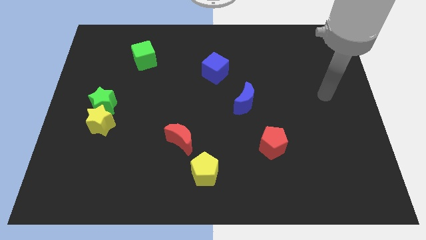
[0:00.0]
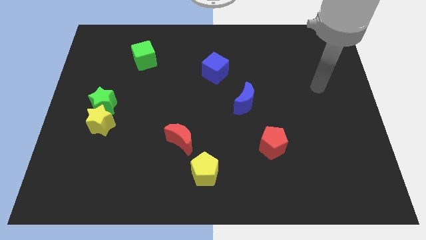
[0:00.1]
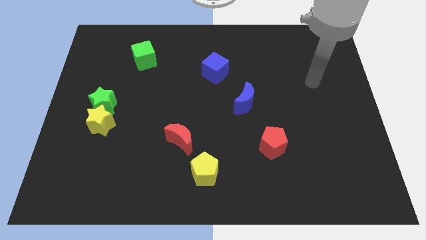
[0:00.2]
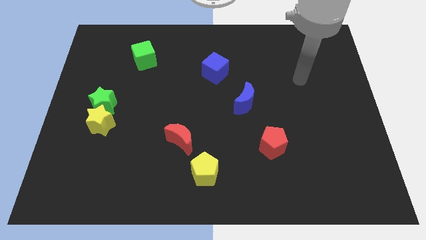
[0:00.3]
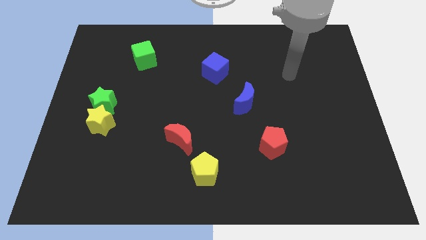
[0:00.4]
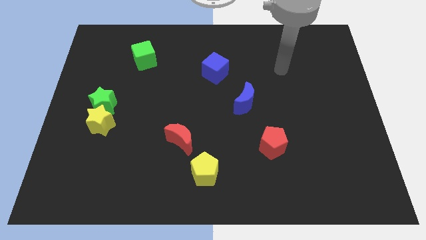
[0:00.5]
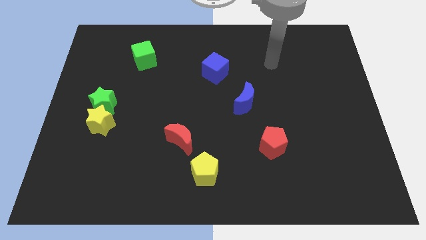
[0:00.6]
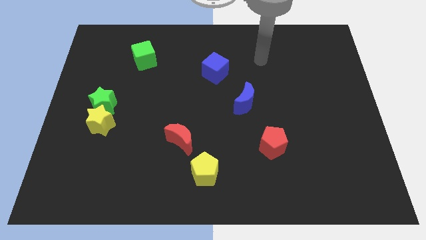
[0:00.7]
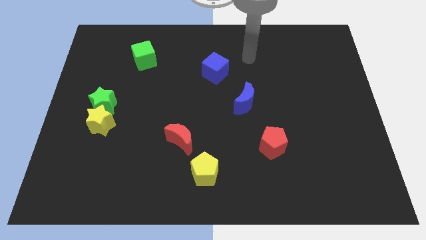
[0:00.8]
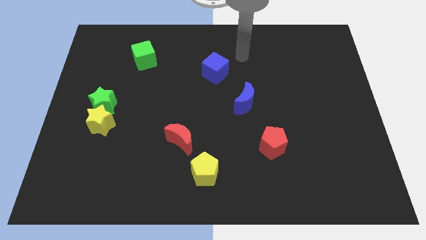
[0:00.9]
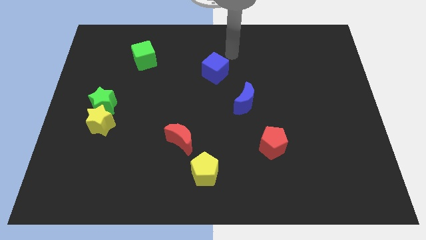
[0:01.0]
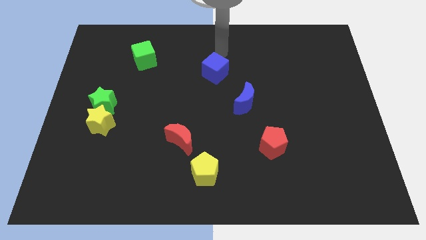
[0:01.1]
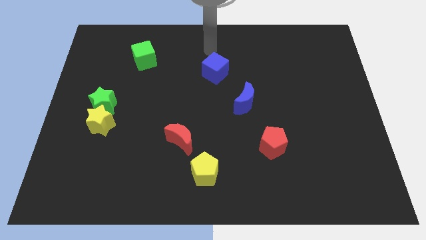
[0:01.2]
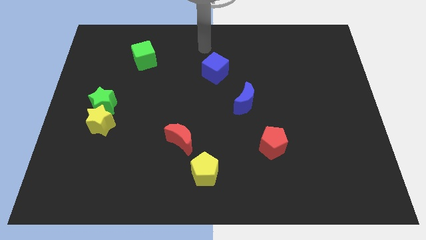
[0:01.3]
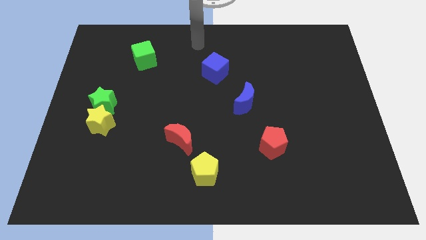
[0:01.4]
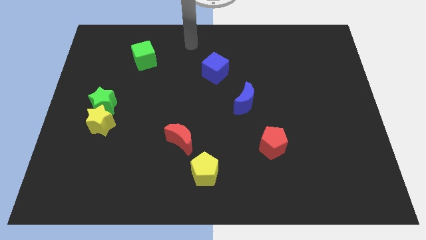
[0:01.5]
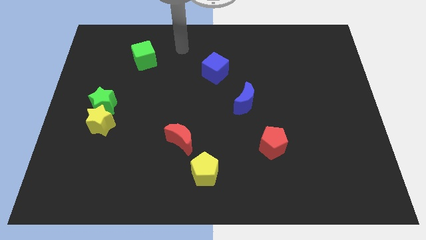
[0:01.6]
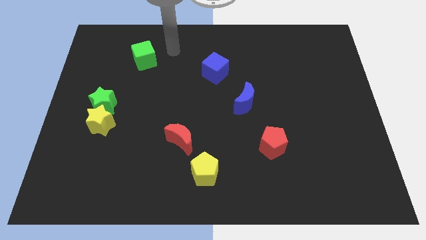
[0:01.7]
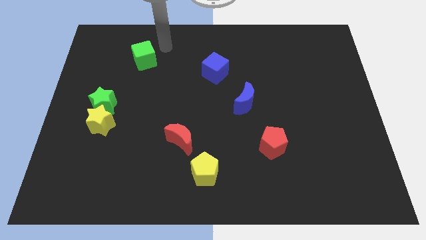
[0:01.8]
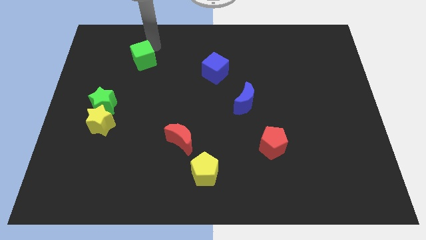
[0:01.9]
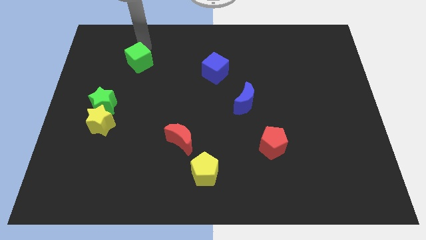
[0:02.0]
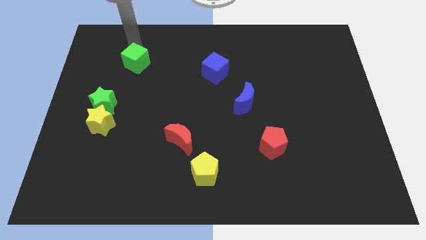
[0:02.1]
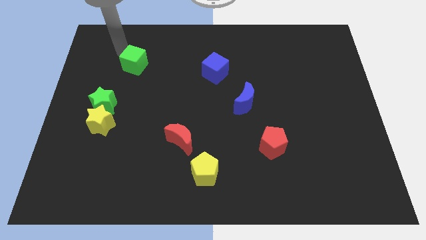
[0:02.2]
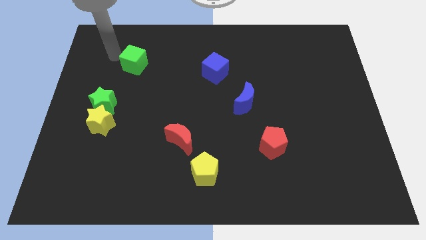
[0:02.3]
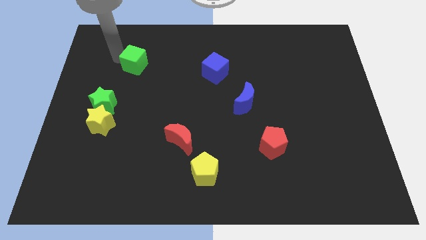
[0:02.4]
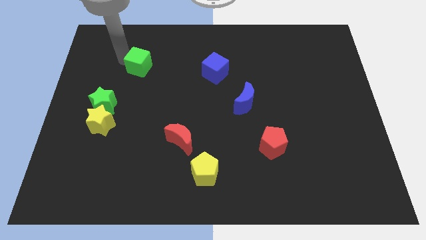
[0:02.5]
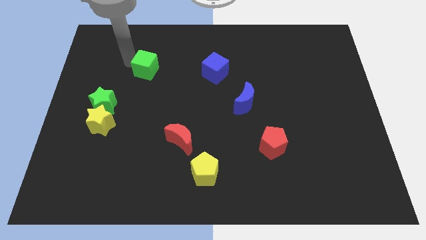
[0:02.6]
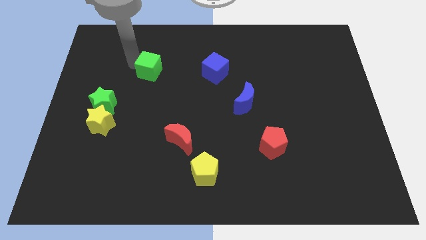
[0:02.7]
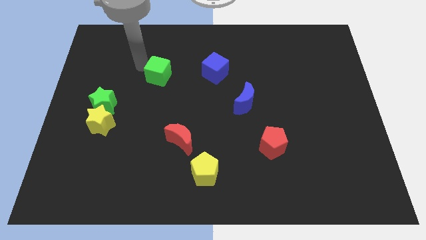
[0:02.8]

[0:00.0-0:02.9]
move the green cube slightly down and to the right diagonally

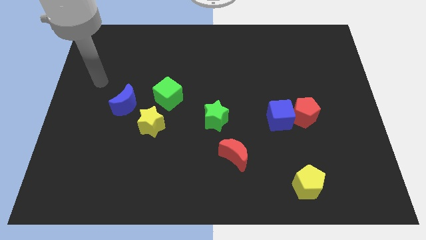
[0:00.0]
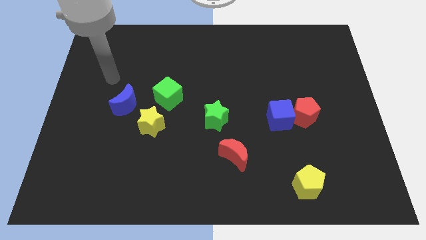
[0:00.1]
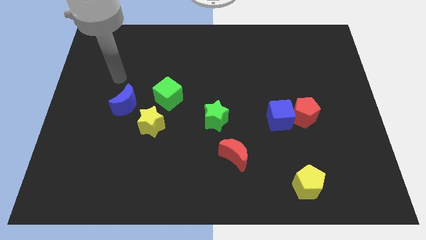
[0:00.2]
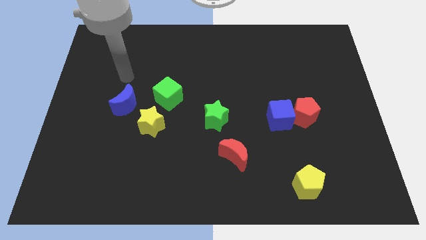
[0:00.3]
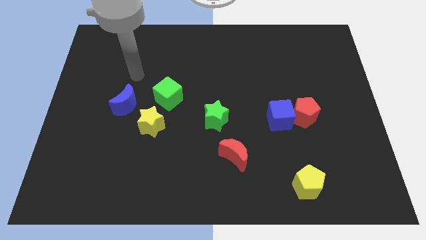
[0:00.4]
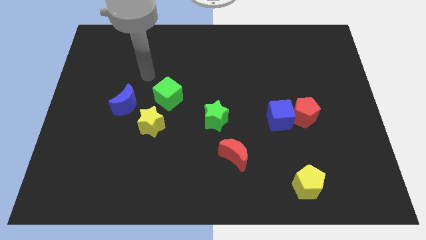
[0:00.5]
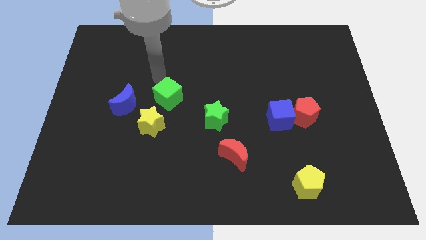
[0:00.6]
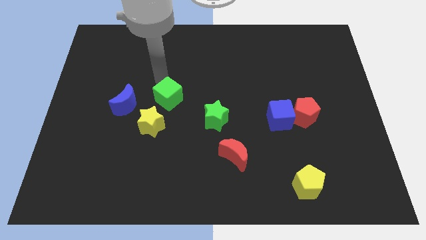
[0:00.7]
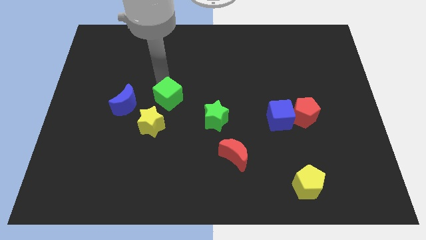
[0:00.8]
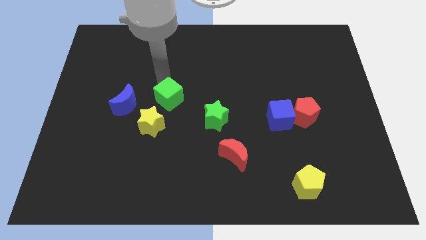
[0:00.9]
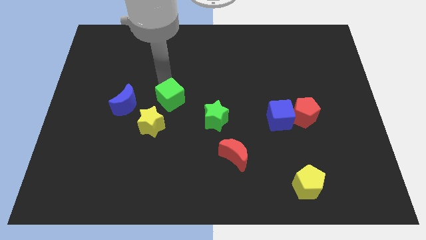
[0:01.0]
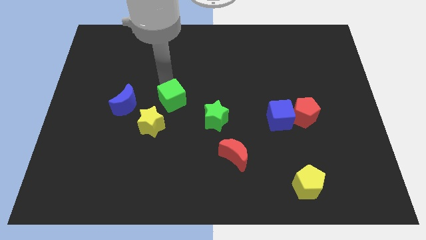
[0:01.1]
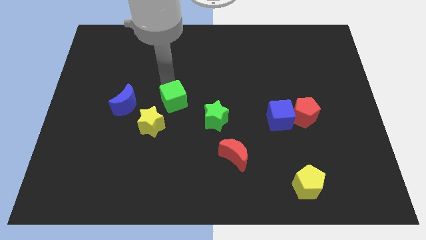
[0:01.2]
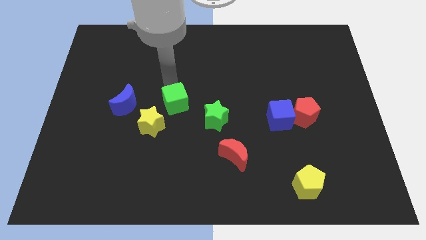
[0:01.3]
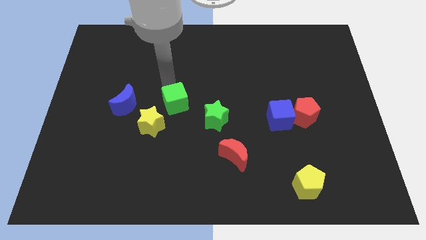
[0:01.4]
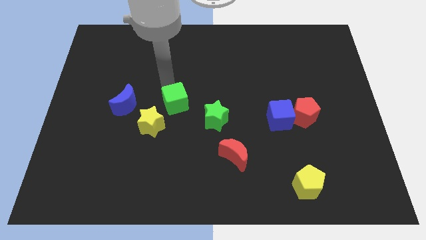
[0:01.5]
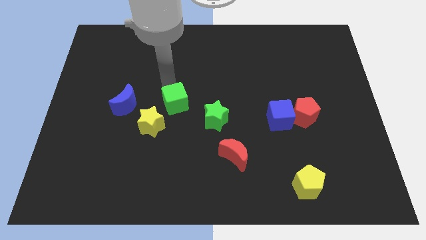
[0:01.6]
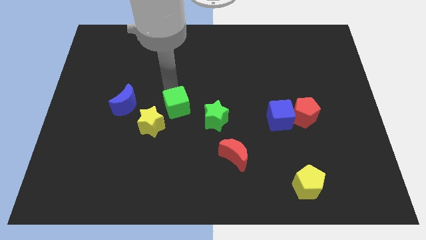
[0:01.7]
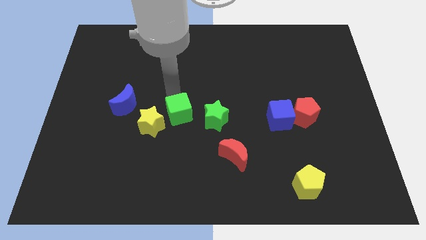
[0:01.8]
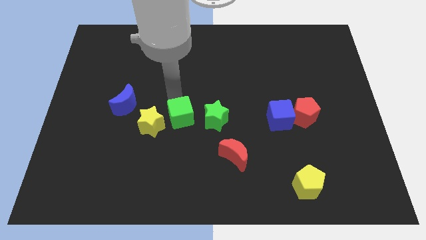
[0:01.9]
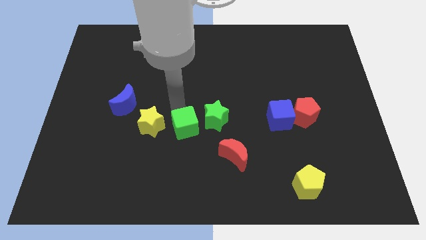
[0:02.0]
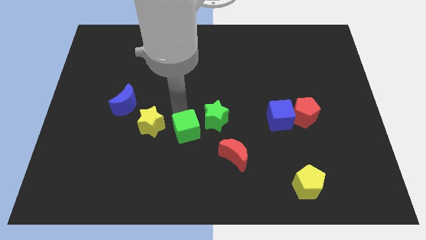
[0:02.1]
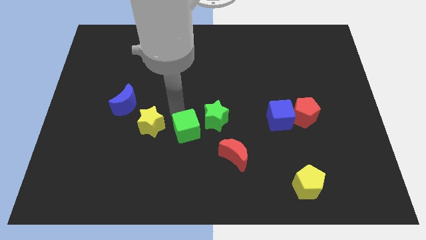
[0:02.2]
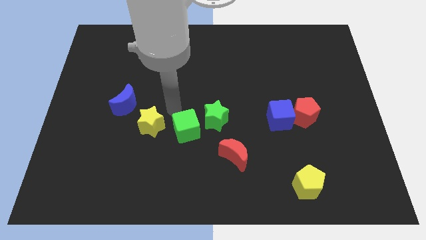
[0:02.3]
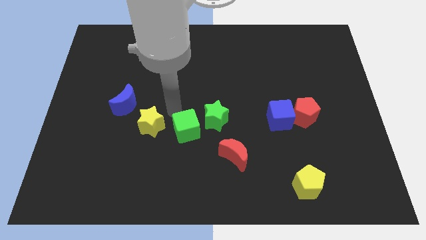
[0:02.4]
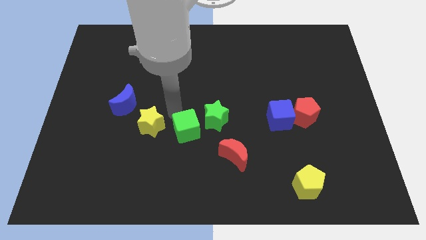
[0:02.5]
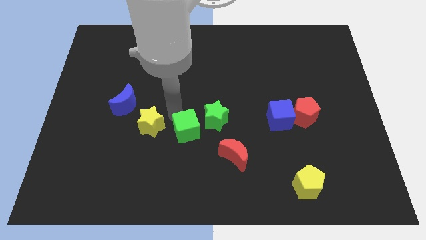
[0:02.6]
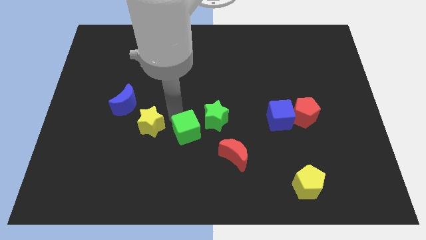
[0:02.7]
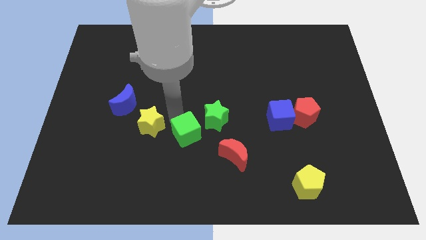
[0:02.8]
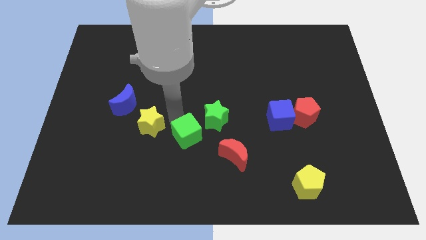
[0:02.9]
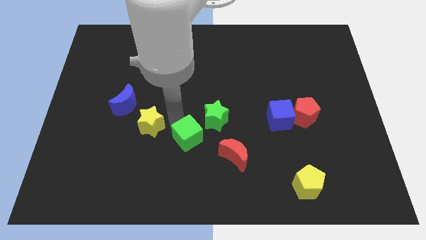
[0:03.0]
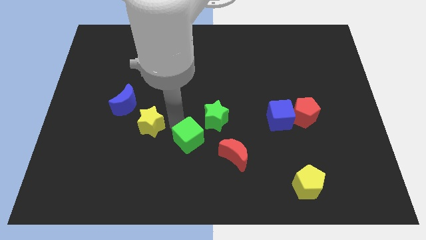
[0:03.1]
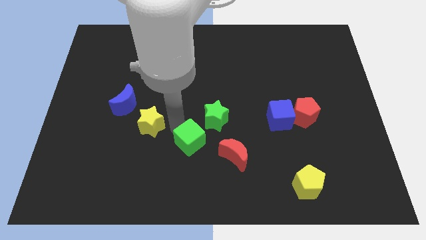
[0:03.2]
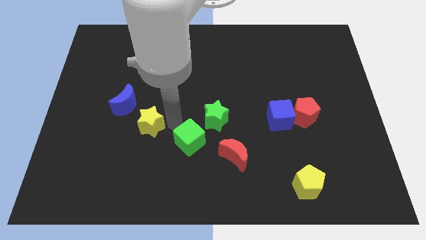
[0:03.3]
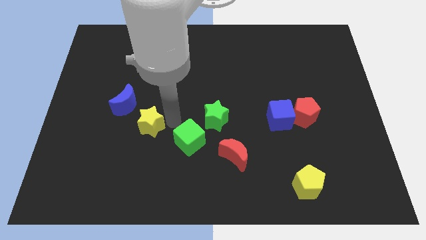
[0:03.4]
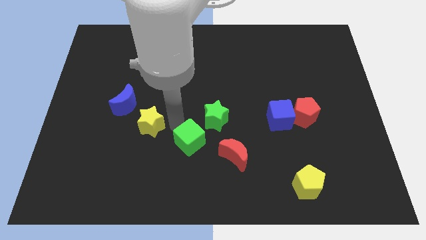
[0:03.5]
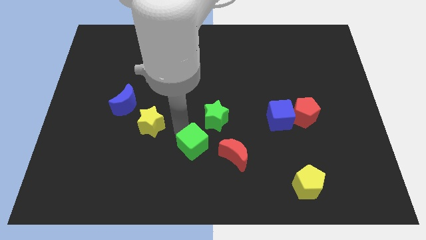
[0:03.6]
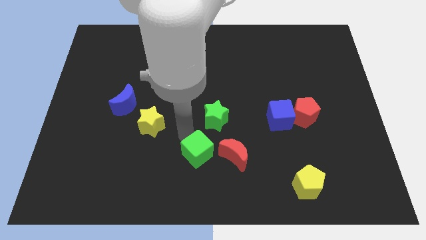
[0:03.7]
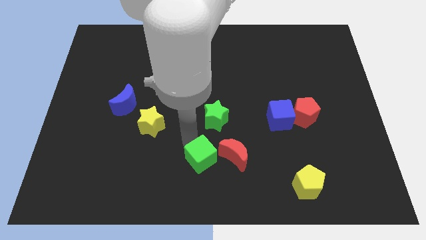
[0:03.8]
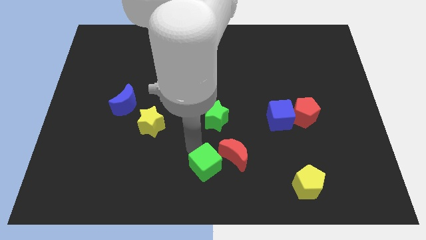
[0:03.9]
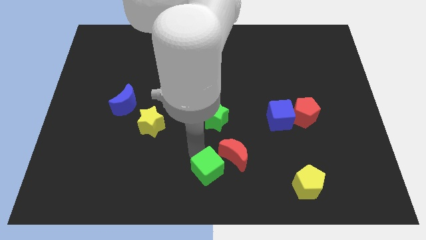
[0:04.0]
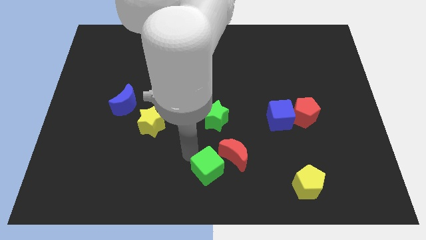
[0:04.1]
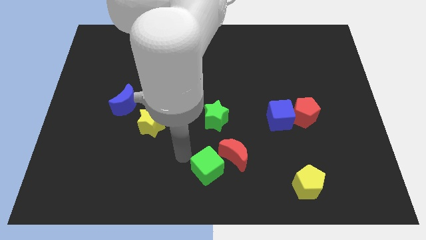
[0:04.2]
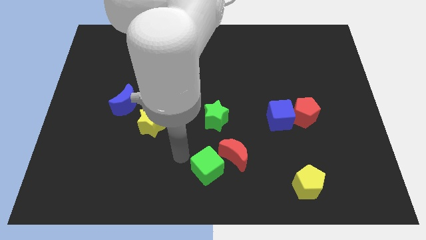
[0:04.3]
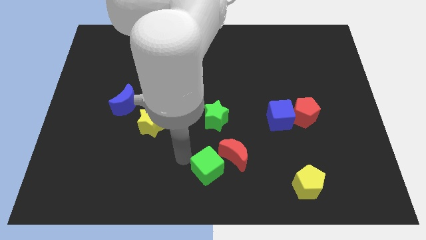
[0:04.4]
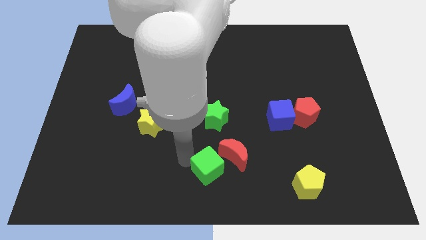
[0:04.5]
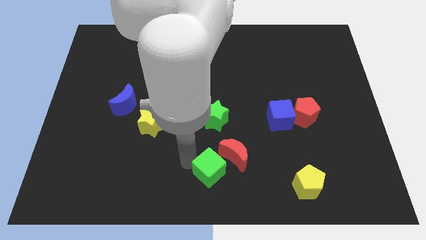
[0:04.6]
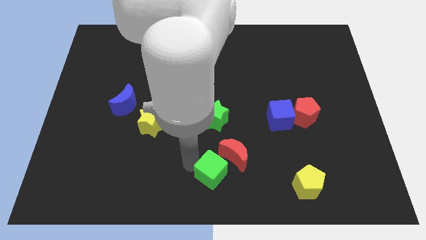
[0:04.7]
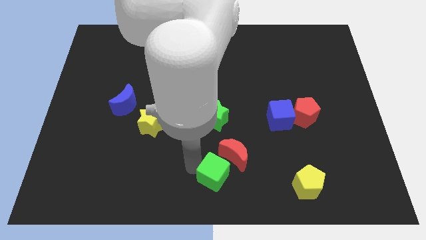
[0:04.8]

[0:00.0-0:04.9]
move the green cube diagonally downwards and right

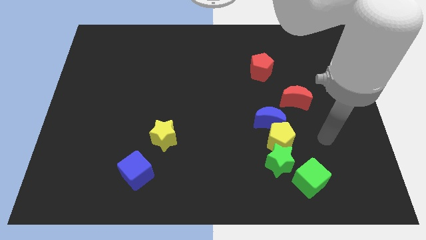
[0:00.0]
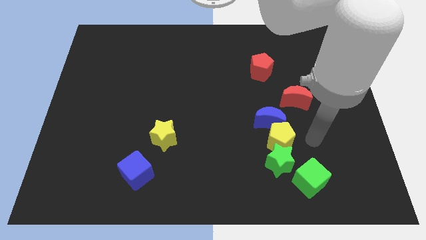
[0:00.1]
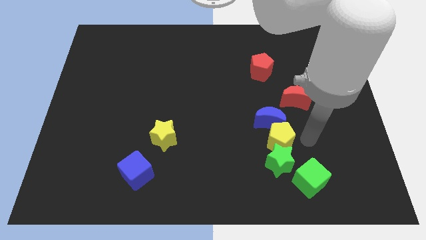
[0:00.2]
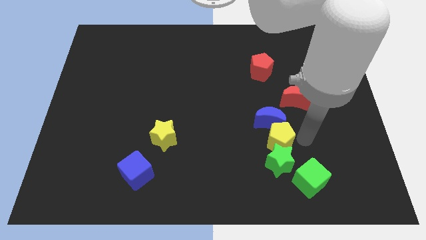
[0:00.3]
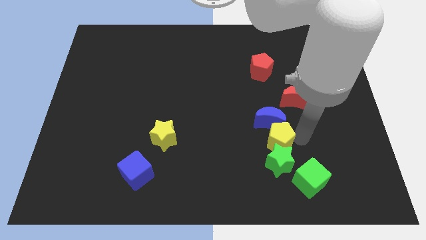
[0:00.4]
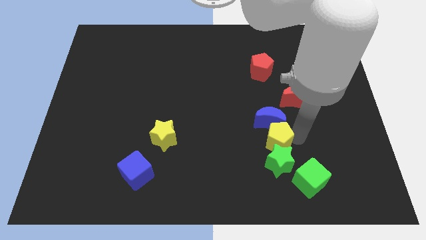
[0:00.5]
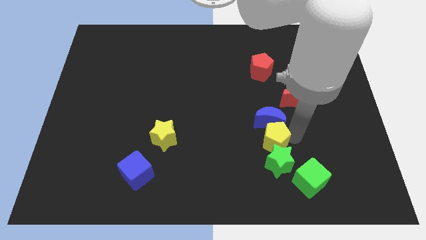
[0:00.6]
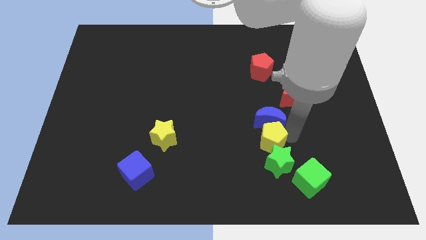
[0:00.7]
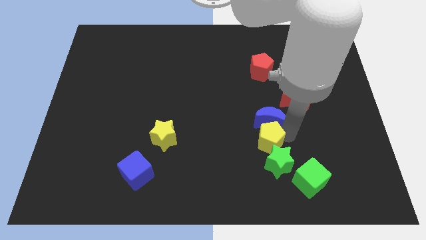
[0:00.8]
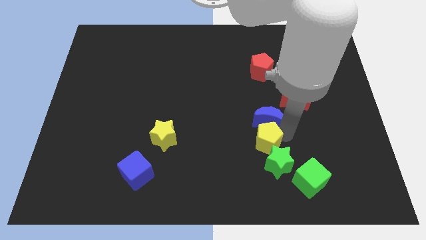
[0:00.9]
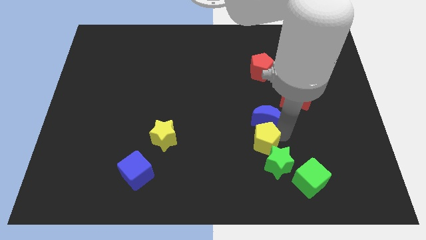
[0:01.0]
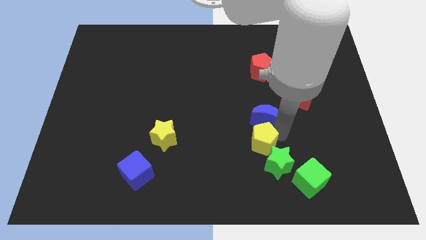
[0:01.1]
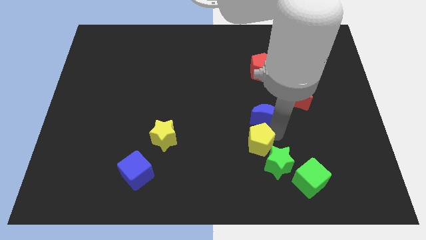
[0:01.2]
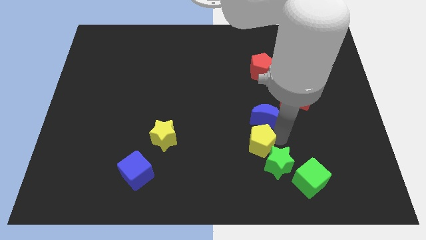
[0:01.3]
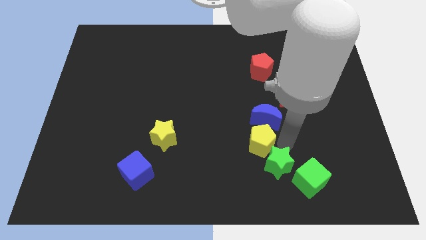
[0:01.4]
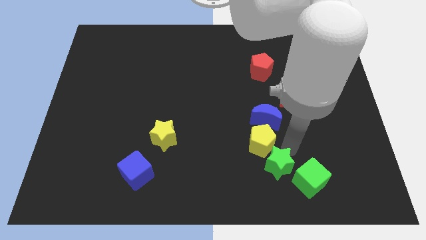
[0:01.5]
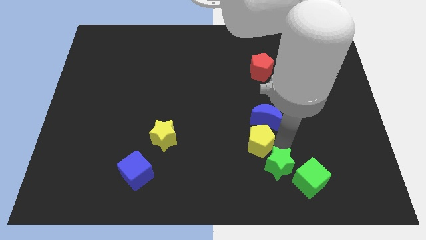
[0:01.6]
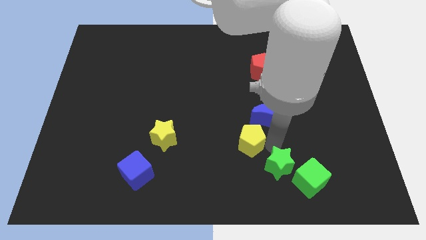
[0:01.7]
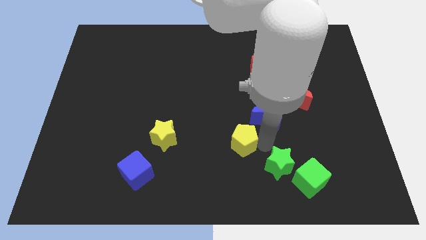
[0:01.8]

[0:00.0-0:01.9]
move the yellow pentagon slightly left
